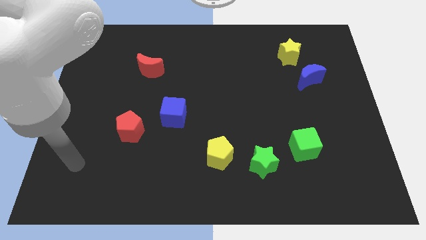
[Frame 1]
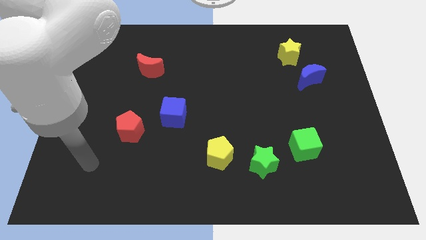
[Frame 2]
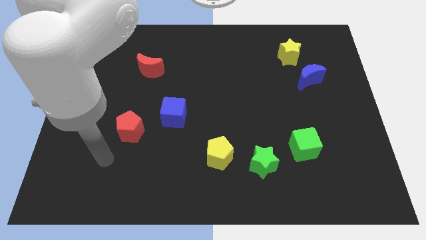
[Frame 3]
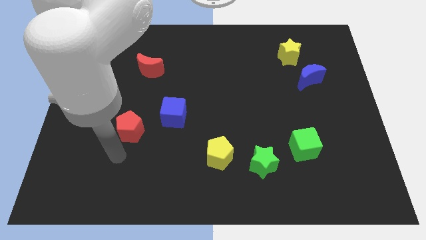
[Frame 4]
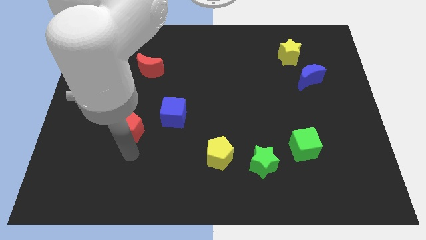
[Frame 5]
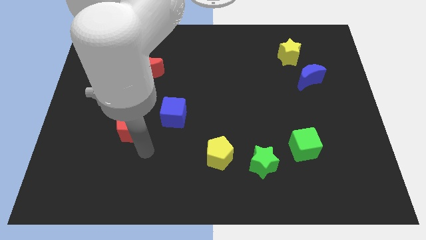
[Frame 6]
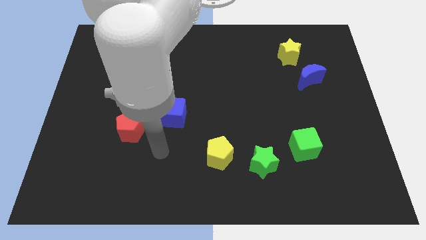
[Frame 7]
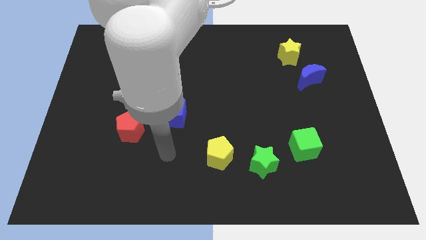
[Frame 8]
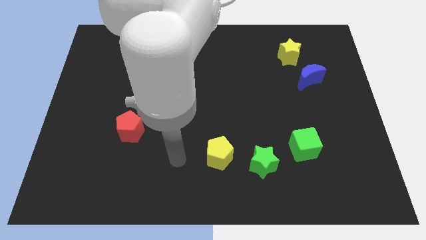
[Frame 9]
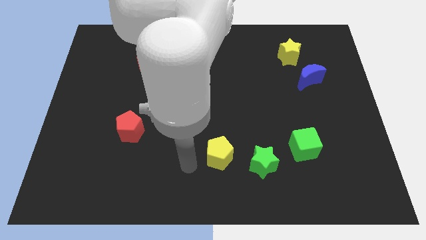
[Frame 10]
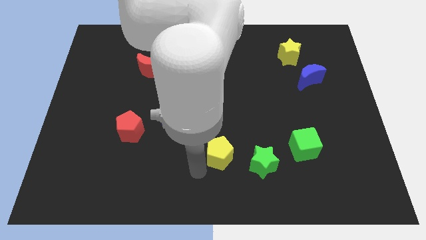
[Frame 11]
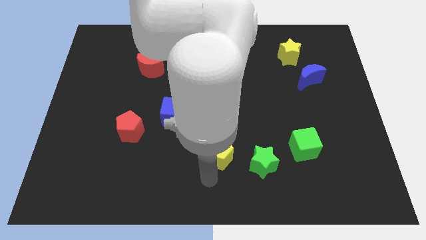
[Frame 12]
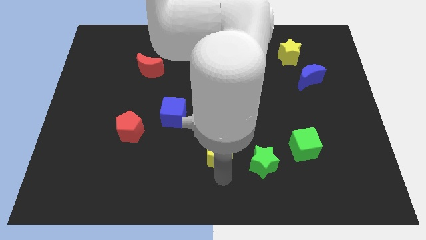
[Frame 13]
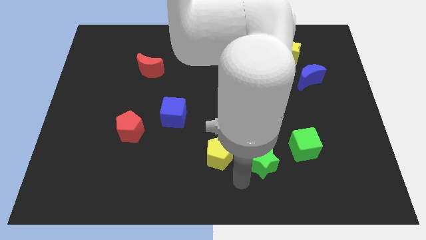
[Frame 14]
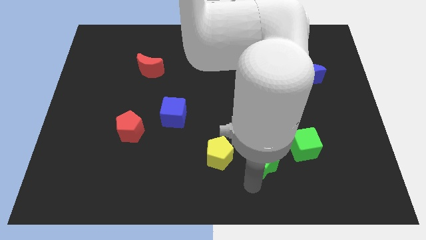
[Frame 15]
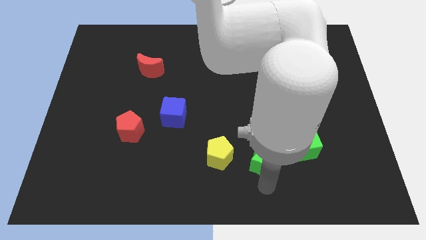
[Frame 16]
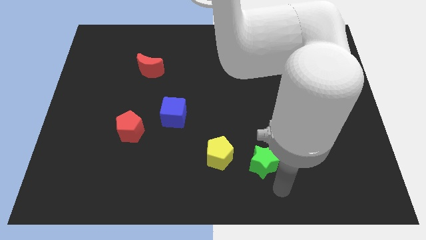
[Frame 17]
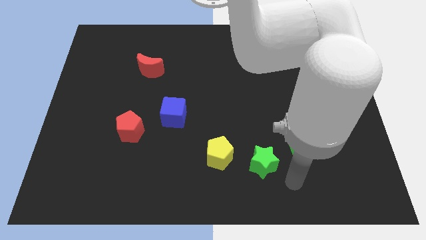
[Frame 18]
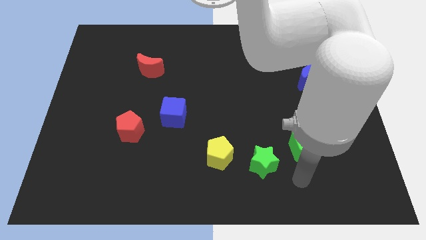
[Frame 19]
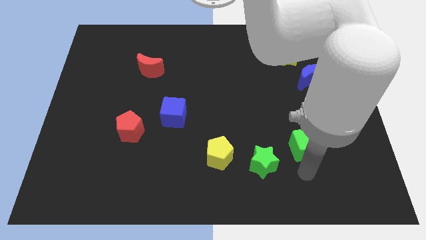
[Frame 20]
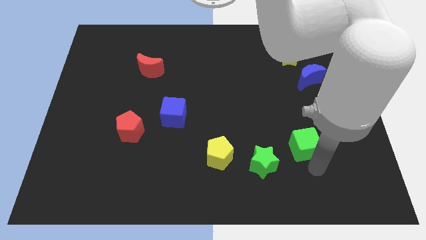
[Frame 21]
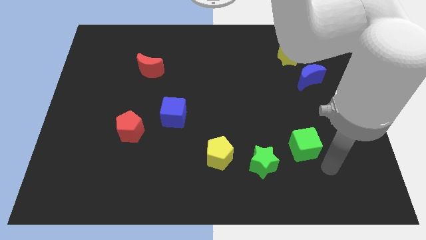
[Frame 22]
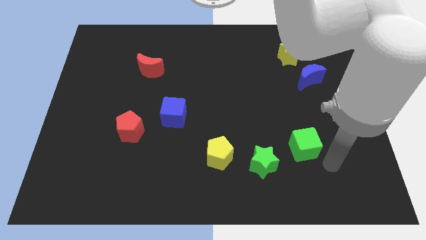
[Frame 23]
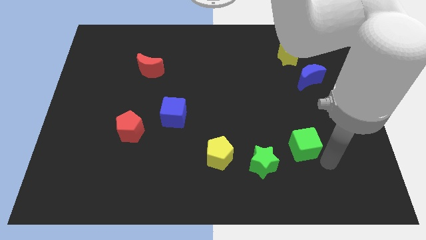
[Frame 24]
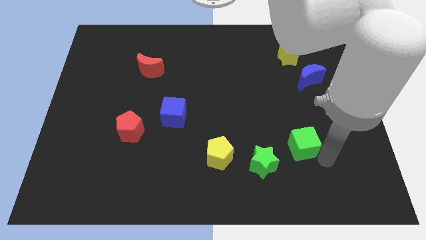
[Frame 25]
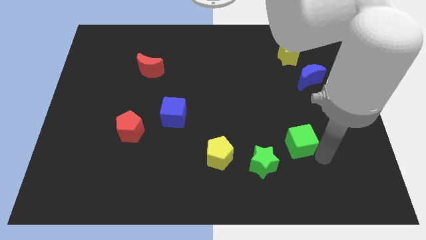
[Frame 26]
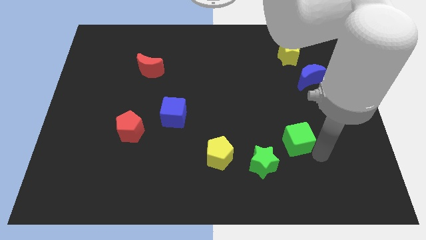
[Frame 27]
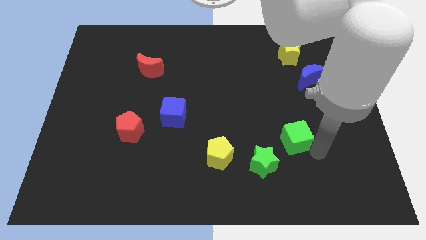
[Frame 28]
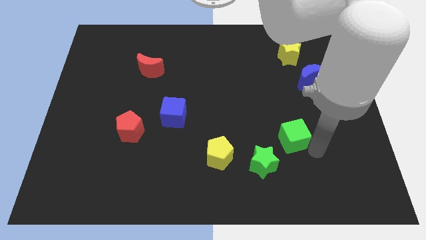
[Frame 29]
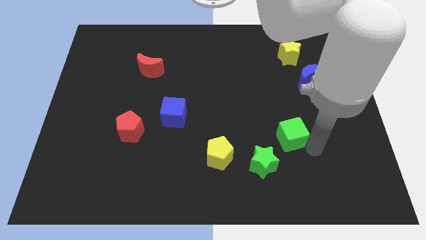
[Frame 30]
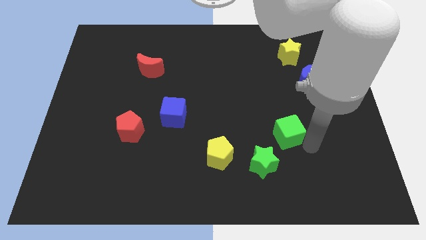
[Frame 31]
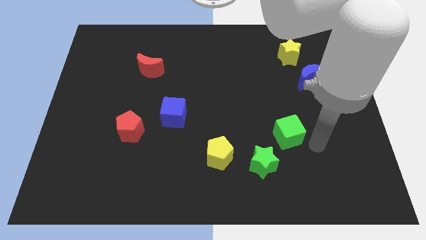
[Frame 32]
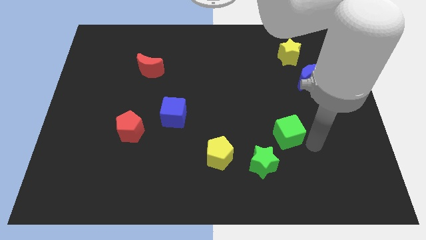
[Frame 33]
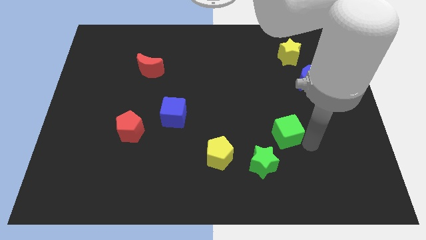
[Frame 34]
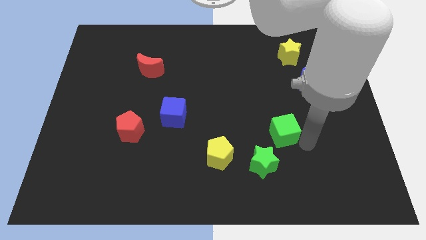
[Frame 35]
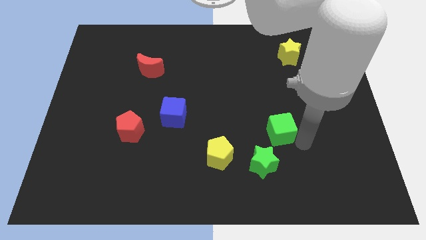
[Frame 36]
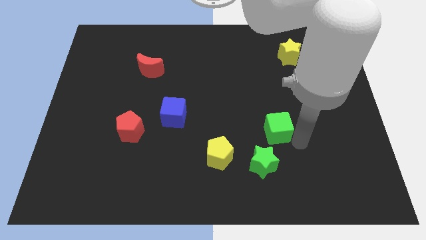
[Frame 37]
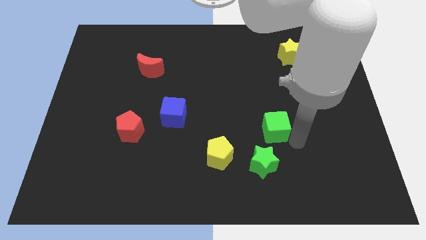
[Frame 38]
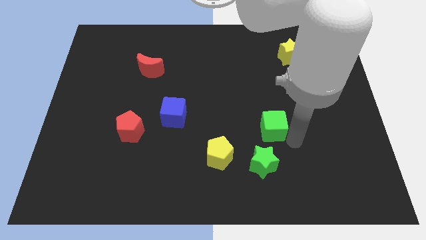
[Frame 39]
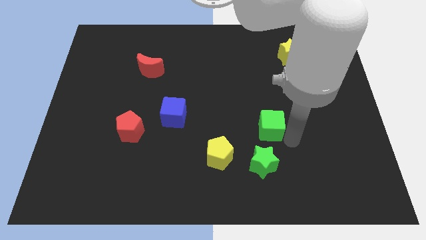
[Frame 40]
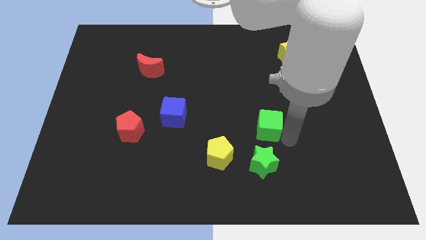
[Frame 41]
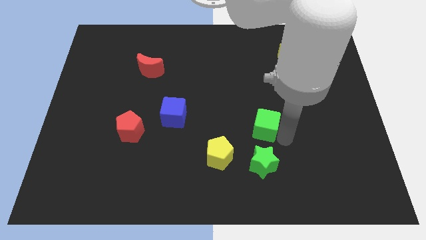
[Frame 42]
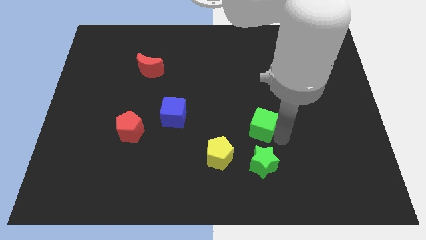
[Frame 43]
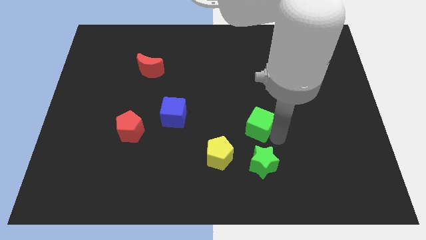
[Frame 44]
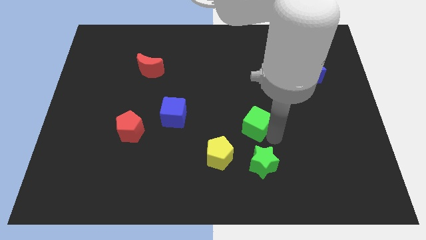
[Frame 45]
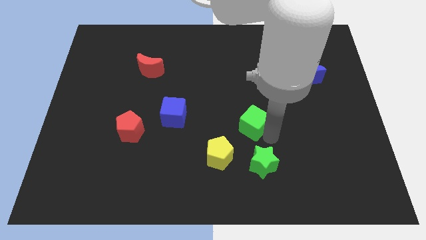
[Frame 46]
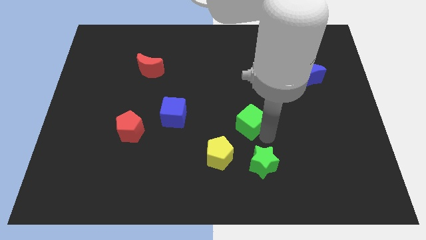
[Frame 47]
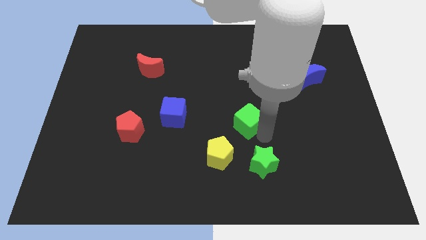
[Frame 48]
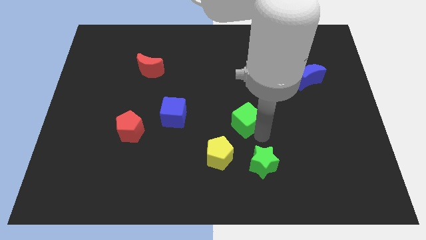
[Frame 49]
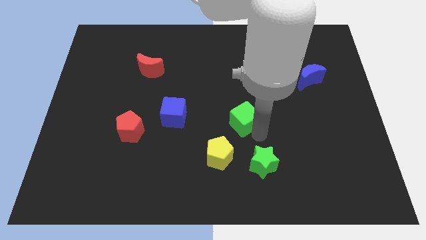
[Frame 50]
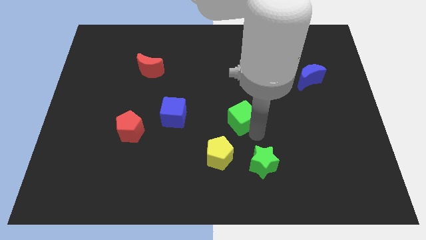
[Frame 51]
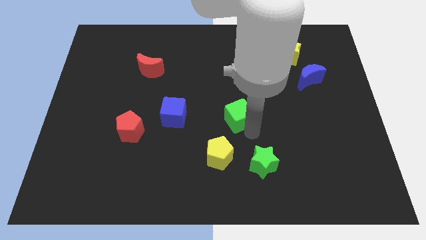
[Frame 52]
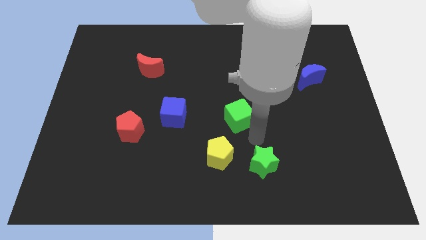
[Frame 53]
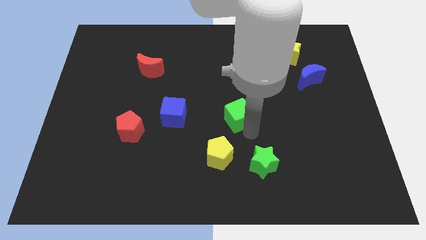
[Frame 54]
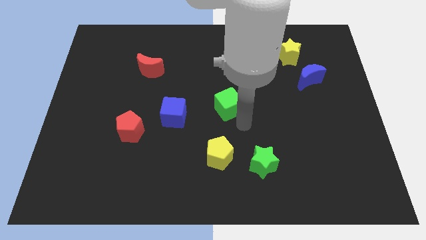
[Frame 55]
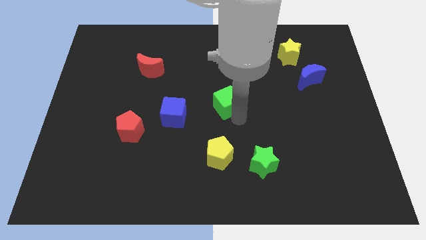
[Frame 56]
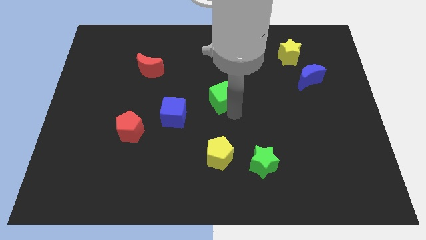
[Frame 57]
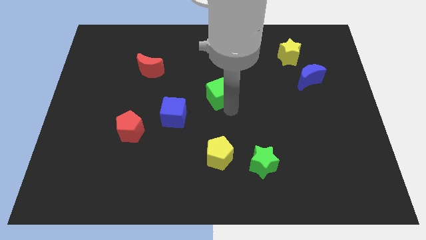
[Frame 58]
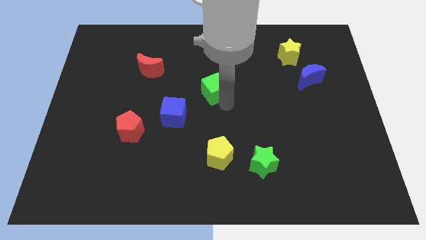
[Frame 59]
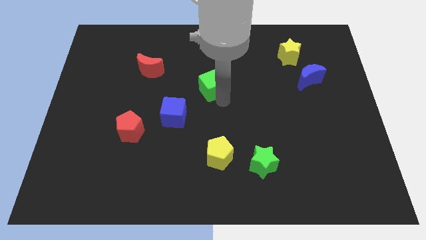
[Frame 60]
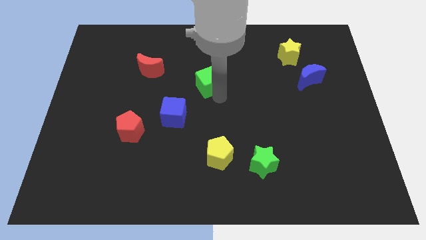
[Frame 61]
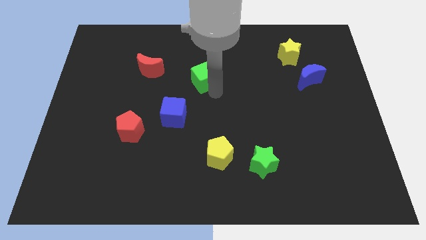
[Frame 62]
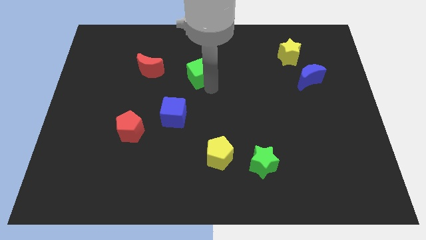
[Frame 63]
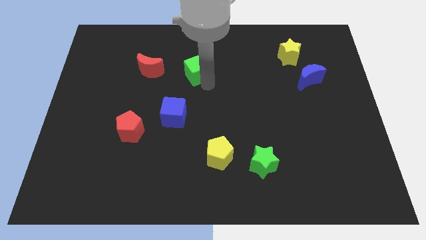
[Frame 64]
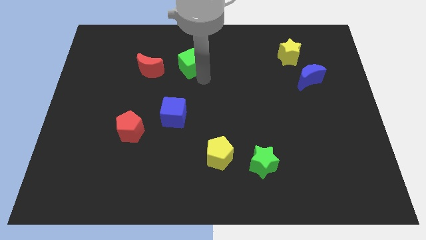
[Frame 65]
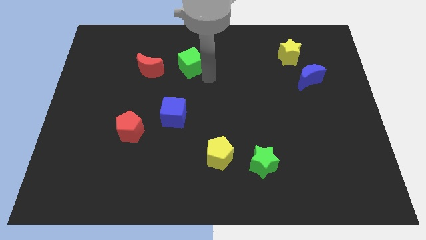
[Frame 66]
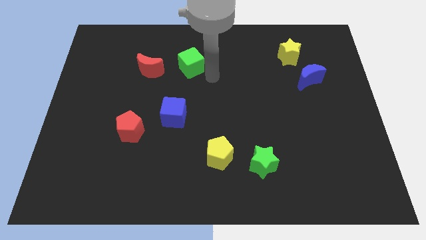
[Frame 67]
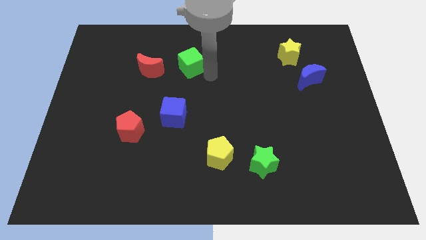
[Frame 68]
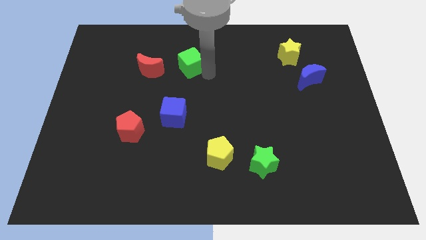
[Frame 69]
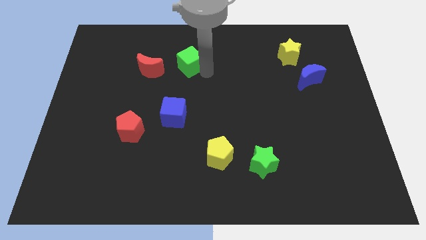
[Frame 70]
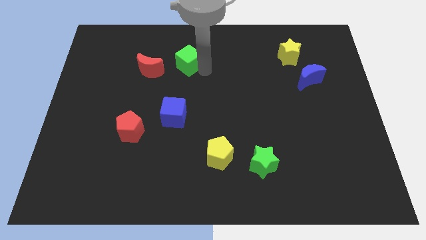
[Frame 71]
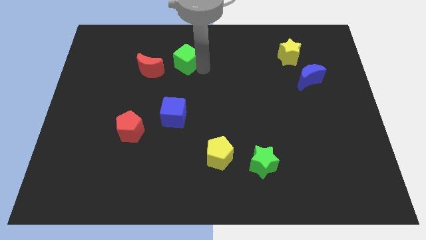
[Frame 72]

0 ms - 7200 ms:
push the green cube to the top right of the red moon
